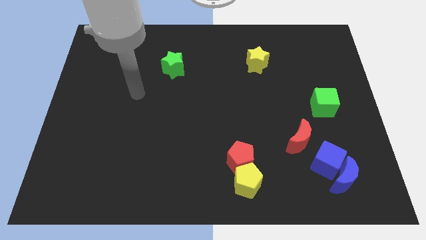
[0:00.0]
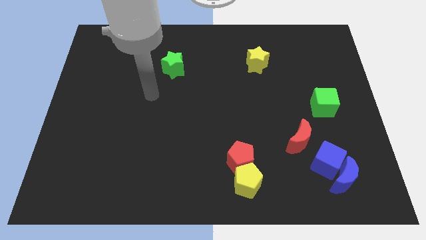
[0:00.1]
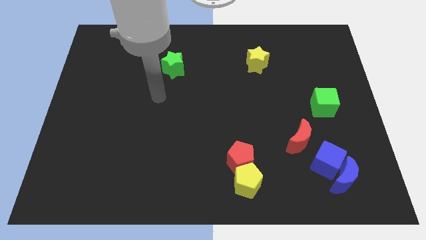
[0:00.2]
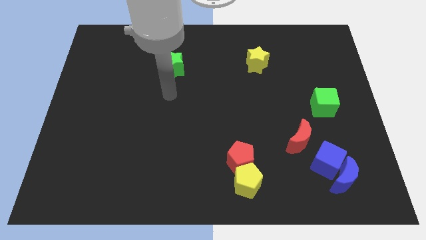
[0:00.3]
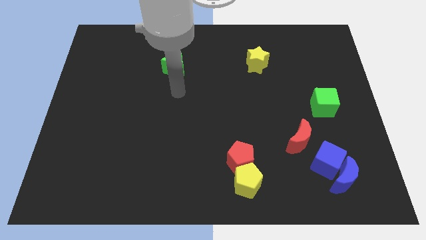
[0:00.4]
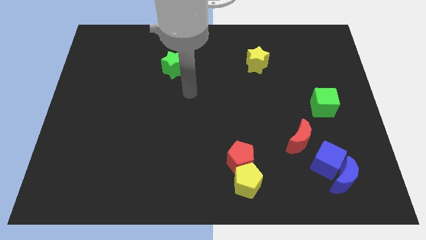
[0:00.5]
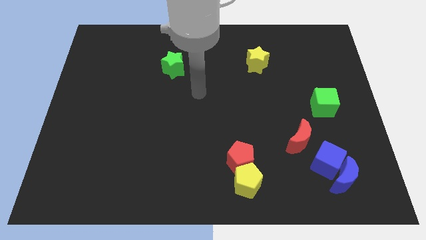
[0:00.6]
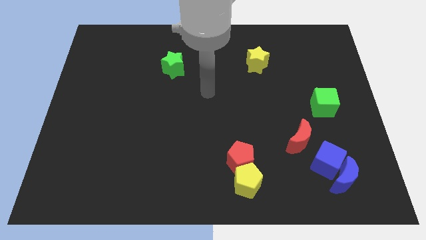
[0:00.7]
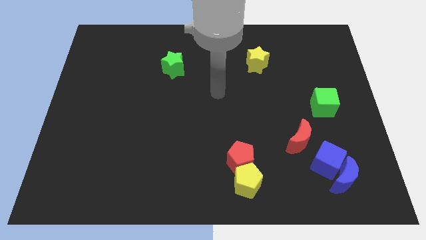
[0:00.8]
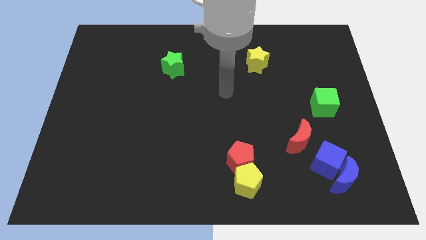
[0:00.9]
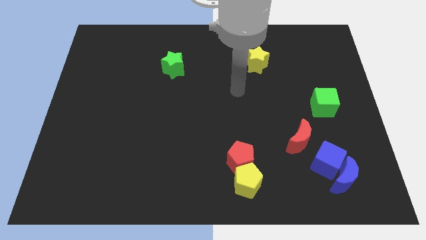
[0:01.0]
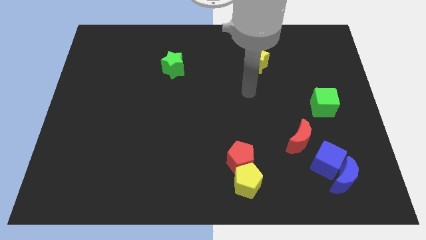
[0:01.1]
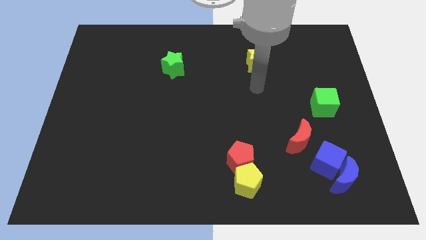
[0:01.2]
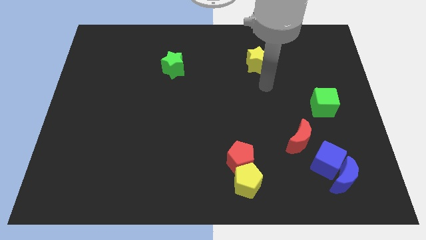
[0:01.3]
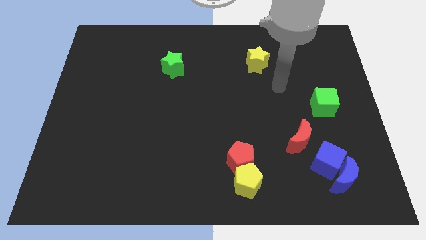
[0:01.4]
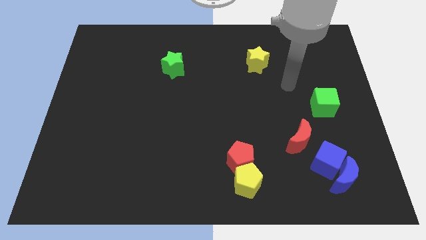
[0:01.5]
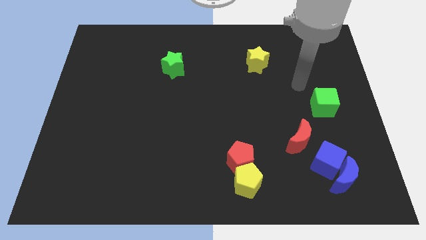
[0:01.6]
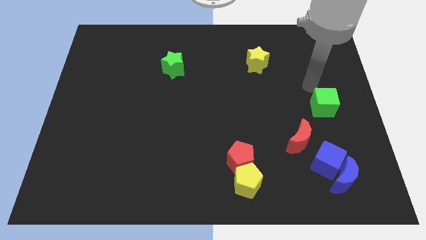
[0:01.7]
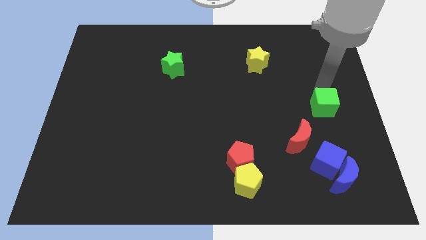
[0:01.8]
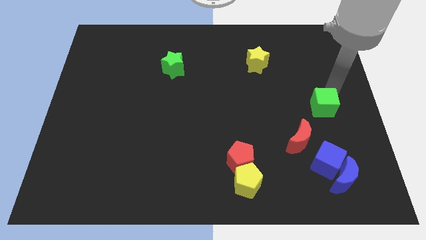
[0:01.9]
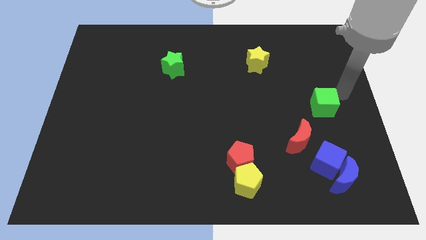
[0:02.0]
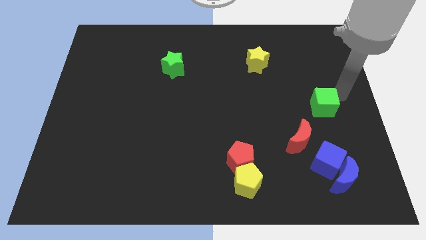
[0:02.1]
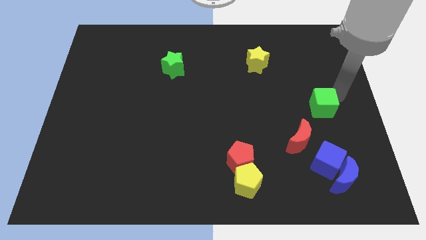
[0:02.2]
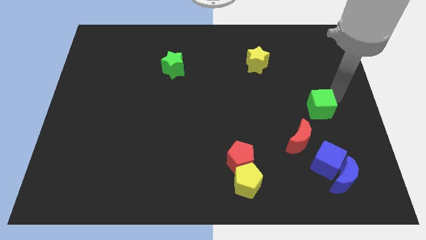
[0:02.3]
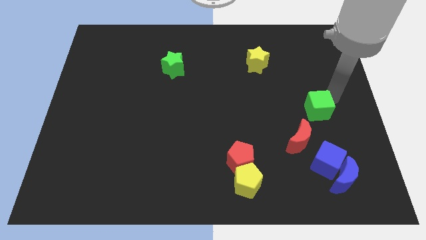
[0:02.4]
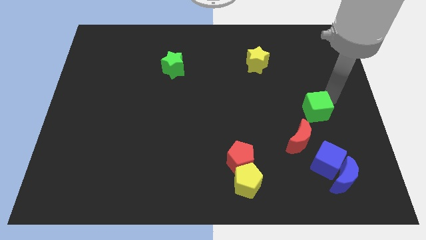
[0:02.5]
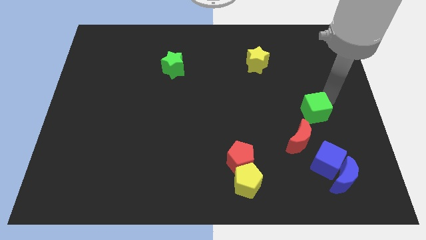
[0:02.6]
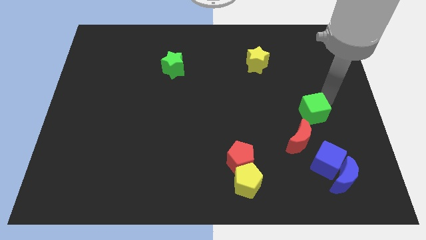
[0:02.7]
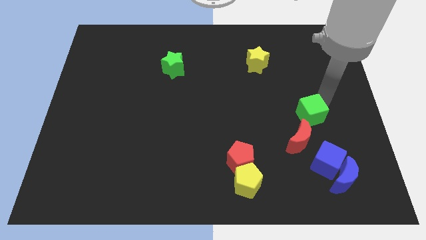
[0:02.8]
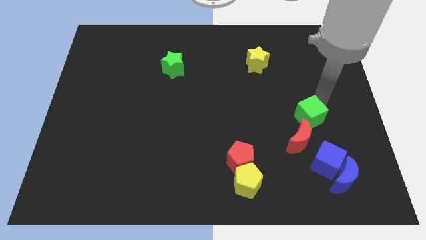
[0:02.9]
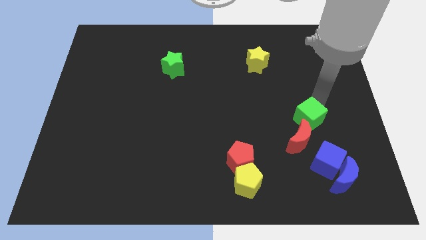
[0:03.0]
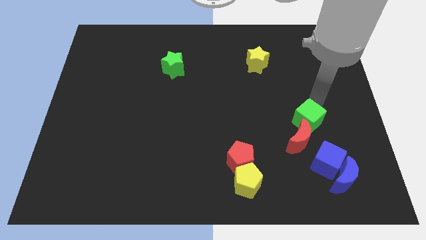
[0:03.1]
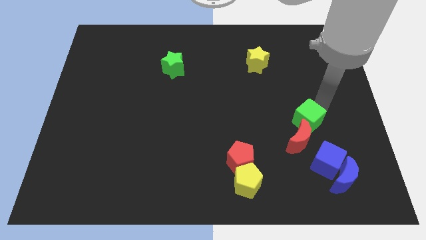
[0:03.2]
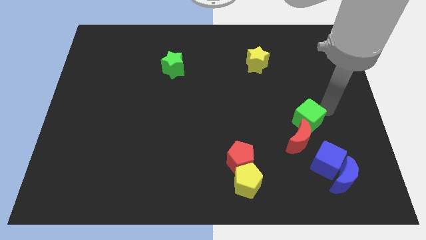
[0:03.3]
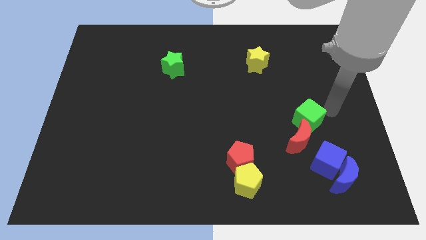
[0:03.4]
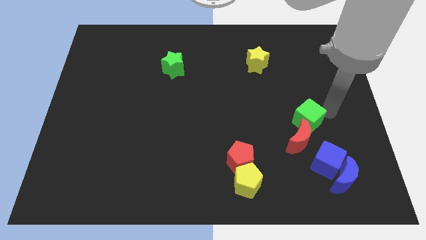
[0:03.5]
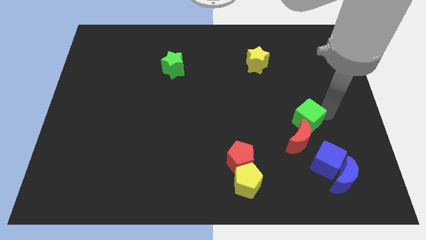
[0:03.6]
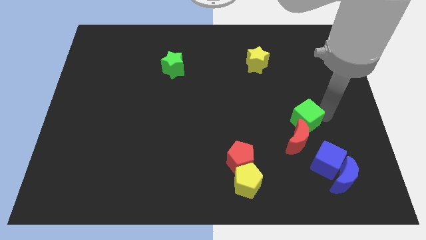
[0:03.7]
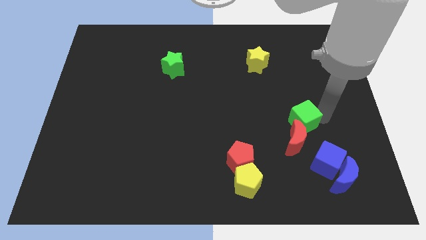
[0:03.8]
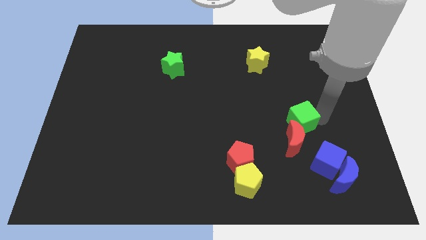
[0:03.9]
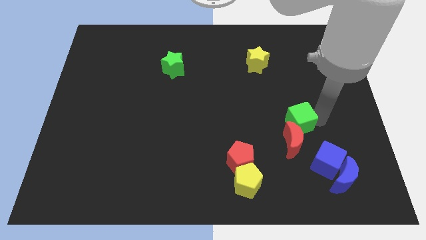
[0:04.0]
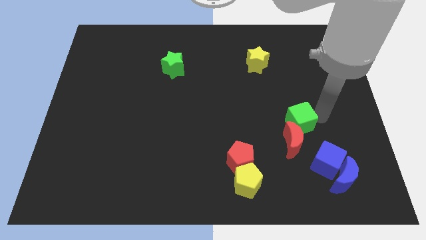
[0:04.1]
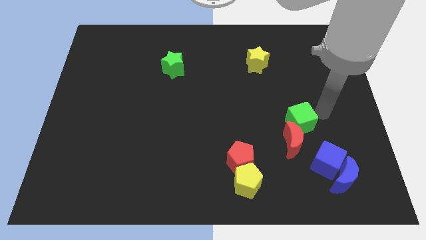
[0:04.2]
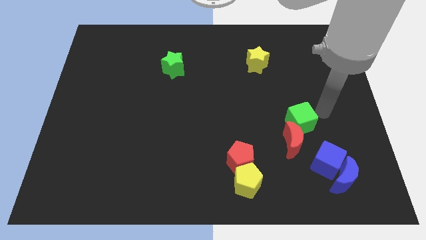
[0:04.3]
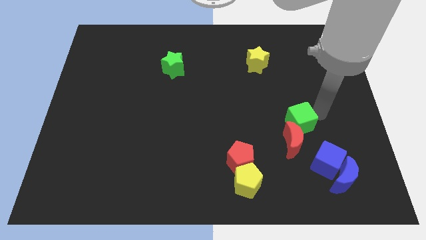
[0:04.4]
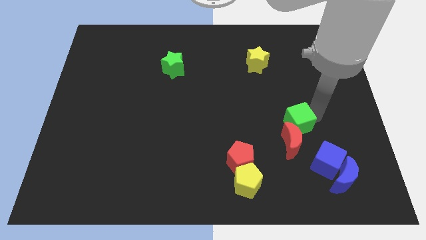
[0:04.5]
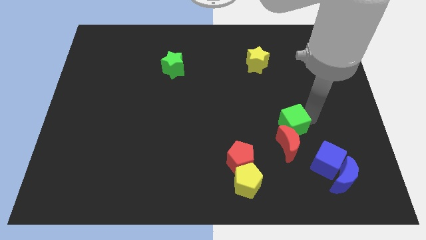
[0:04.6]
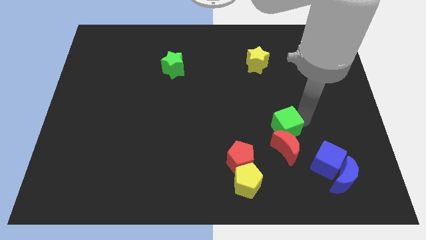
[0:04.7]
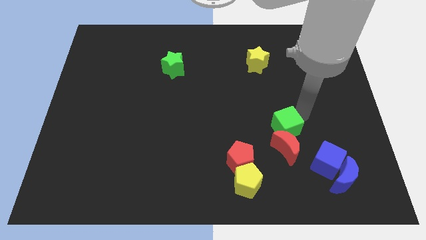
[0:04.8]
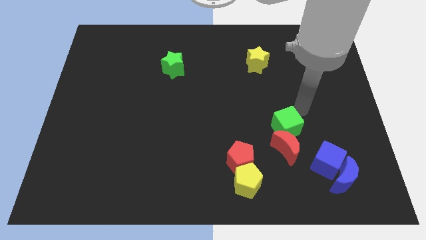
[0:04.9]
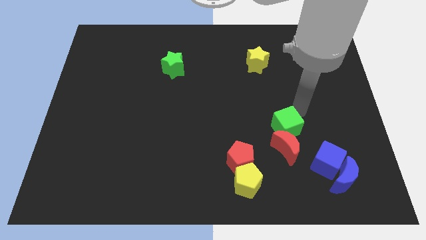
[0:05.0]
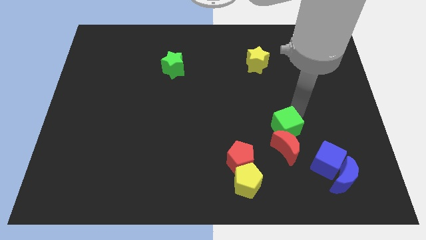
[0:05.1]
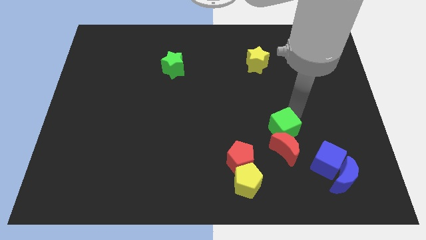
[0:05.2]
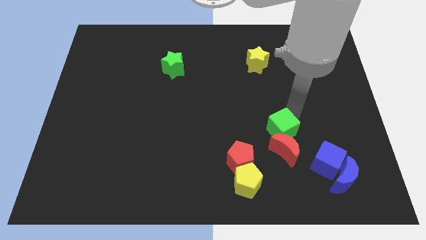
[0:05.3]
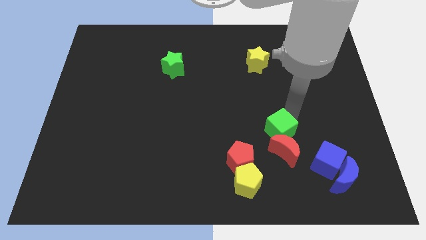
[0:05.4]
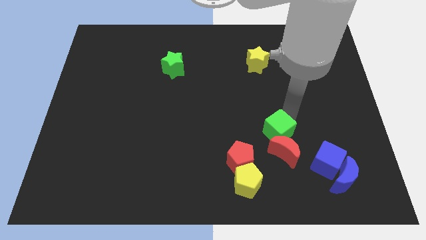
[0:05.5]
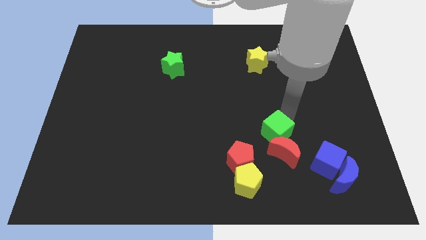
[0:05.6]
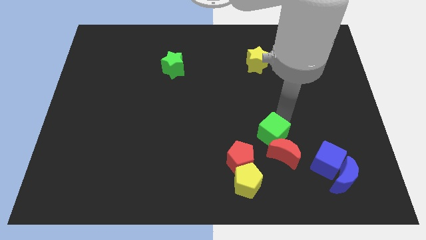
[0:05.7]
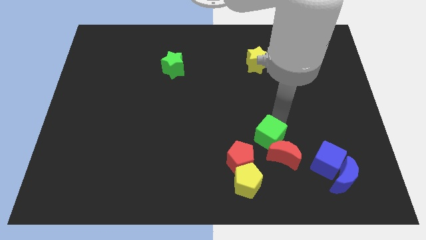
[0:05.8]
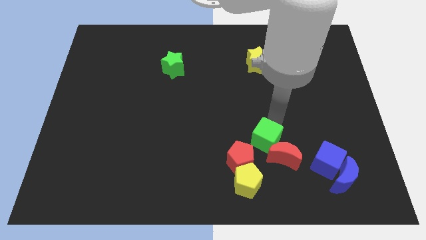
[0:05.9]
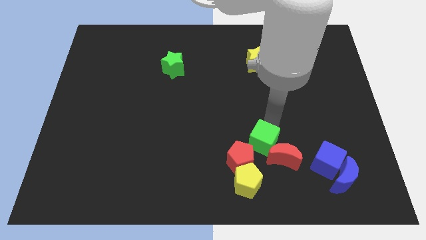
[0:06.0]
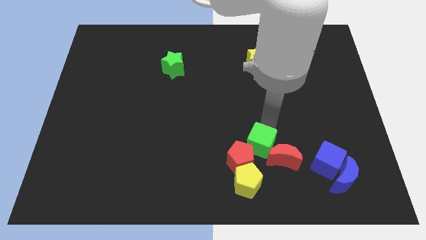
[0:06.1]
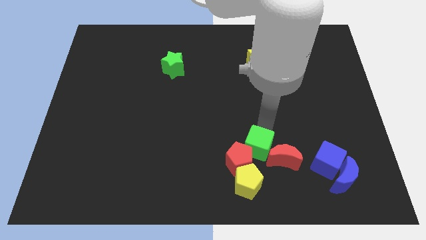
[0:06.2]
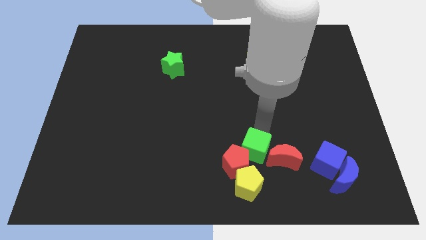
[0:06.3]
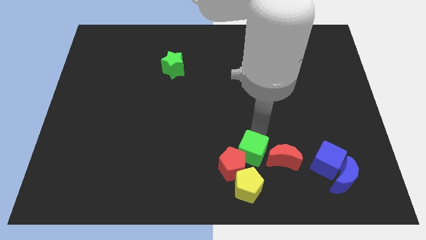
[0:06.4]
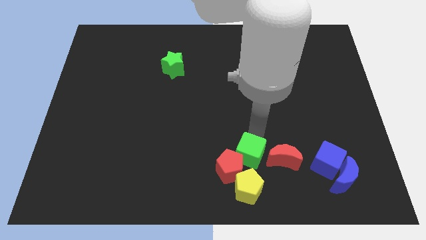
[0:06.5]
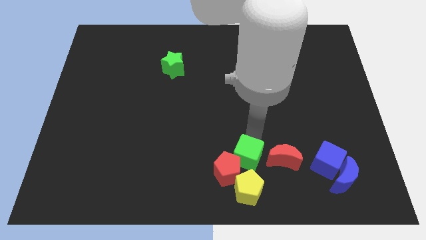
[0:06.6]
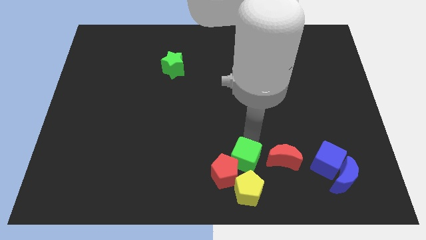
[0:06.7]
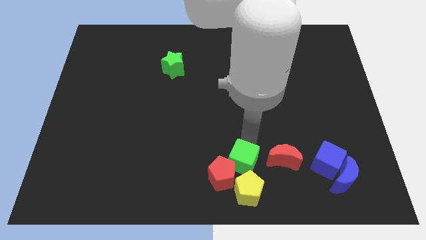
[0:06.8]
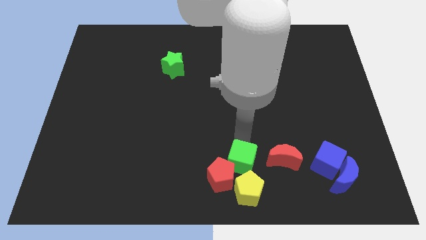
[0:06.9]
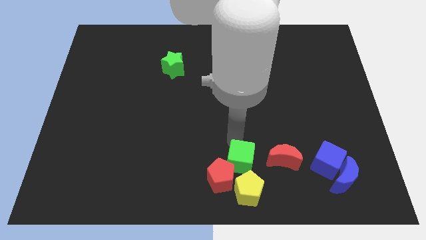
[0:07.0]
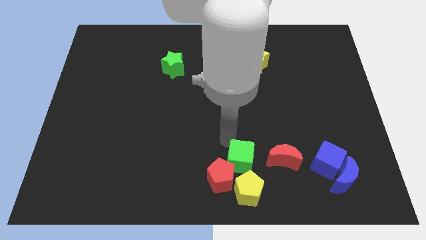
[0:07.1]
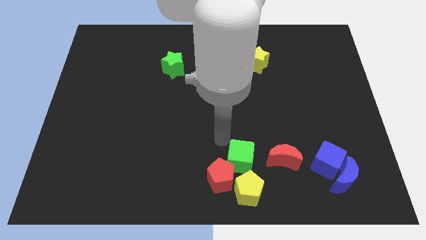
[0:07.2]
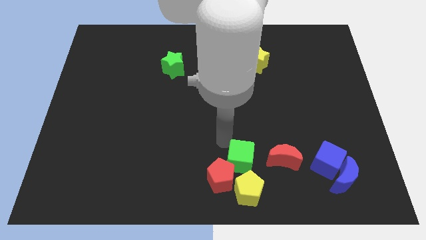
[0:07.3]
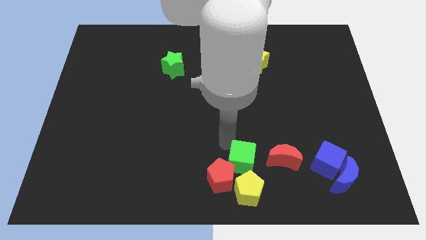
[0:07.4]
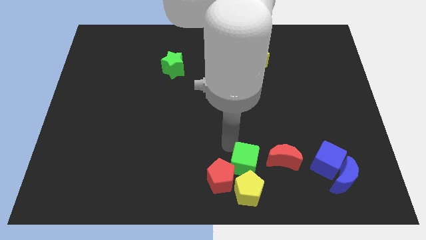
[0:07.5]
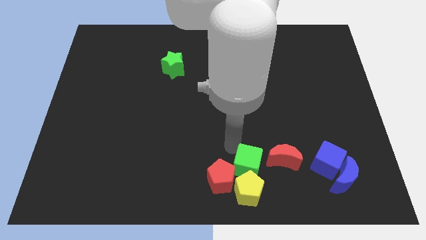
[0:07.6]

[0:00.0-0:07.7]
slide the green cube diagonally down and to the left of the red moon

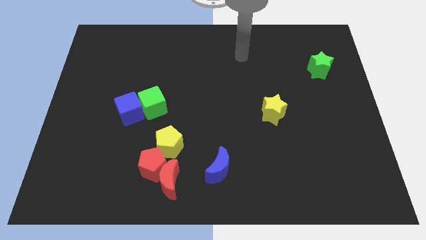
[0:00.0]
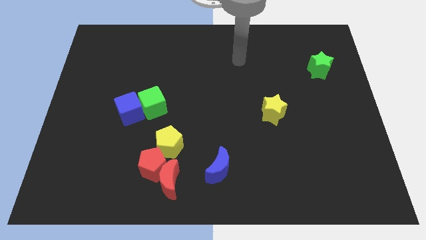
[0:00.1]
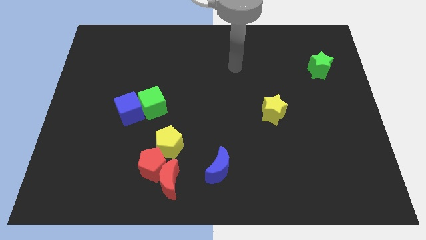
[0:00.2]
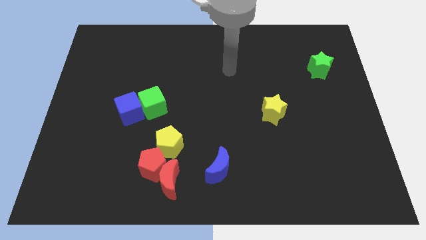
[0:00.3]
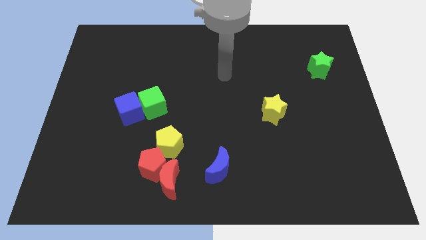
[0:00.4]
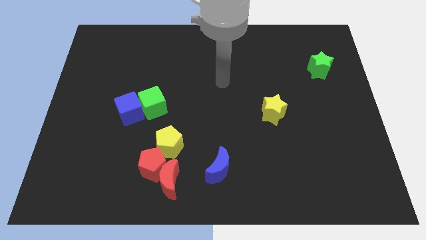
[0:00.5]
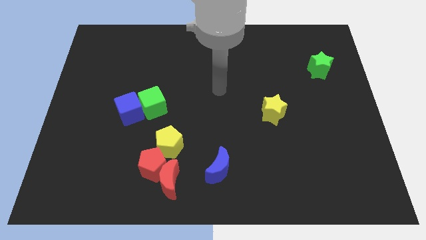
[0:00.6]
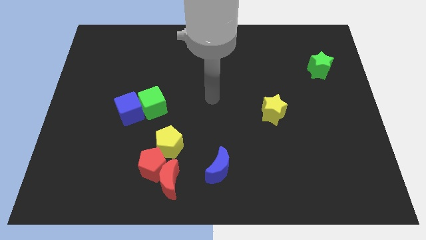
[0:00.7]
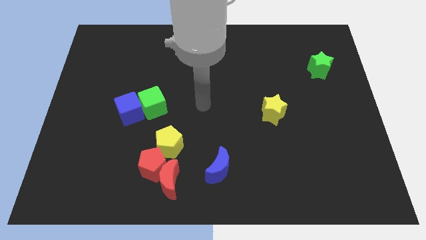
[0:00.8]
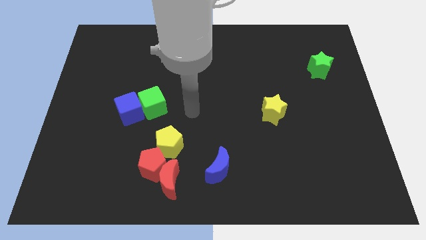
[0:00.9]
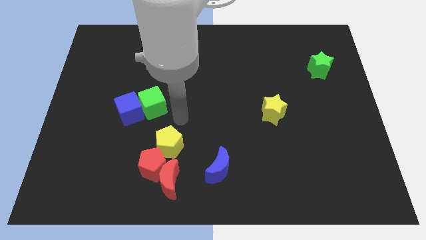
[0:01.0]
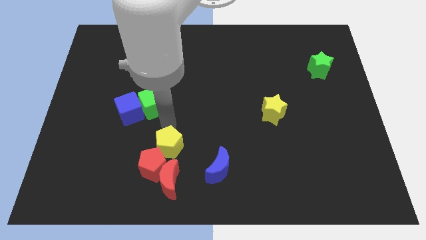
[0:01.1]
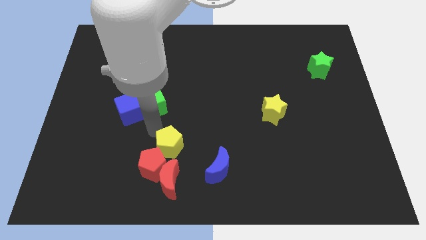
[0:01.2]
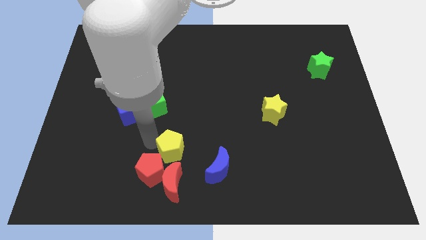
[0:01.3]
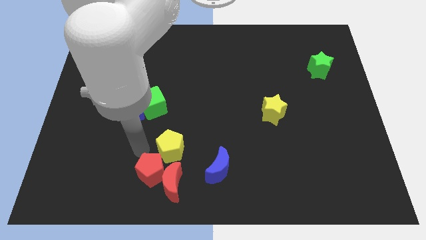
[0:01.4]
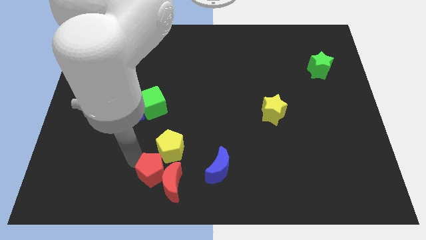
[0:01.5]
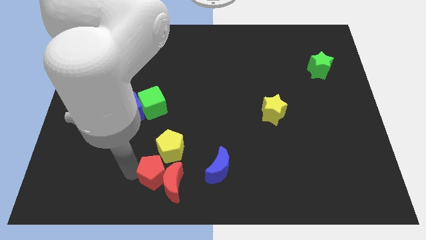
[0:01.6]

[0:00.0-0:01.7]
slide the red moon to the bottom right side of the yellow pentagon
